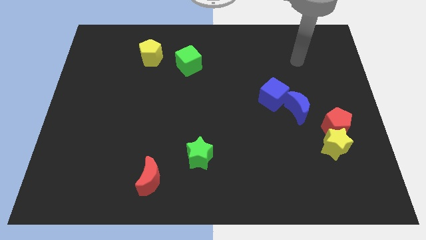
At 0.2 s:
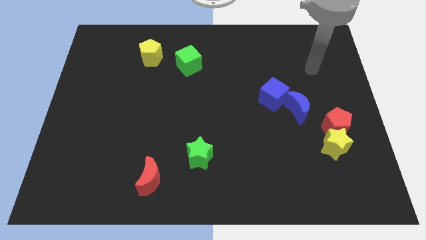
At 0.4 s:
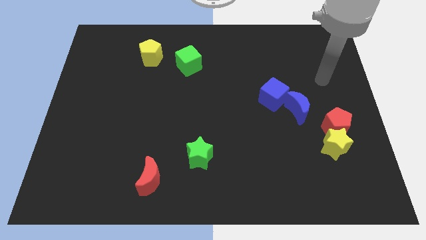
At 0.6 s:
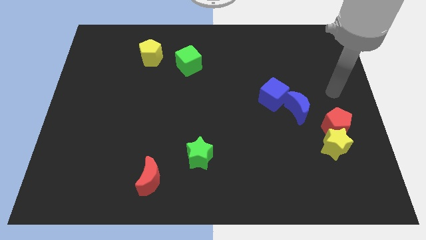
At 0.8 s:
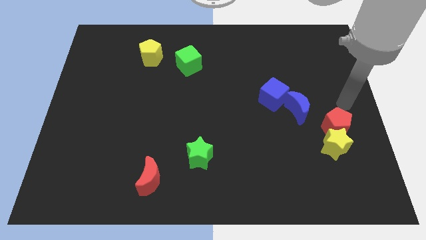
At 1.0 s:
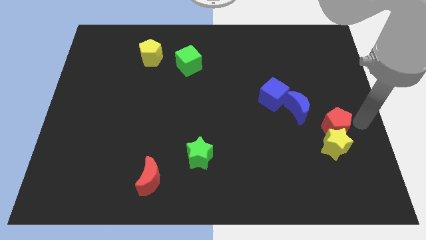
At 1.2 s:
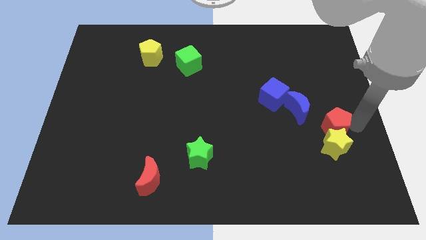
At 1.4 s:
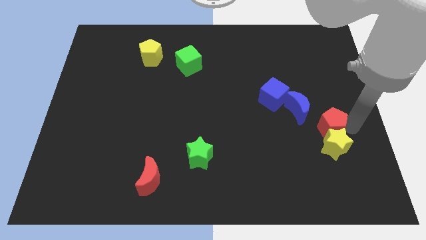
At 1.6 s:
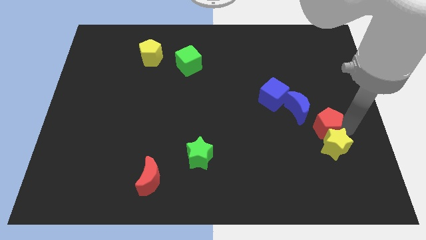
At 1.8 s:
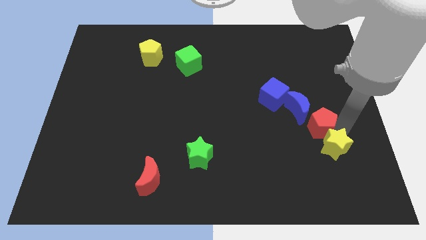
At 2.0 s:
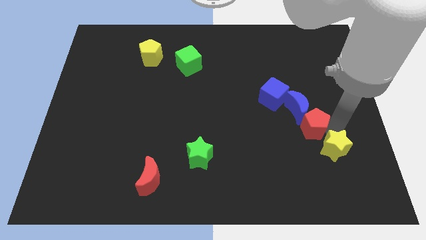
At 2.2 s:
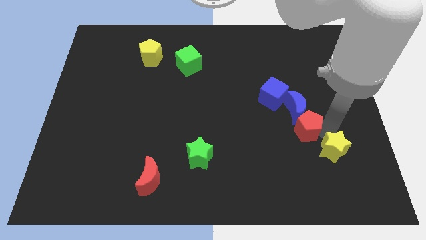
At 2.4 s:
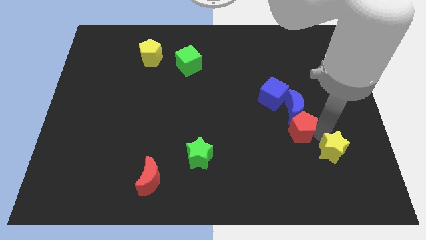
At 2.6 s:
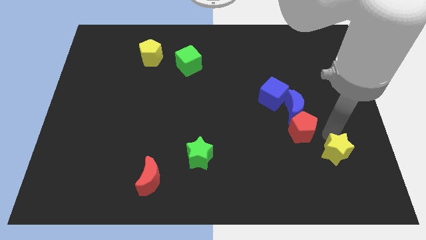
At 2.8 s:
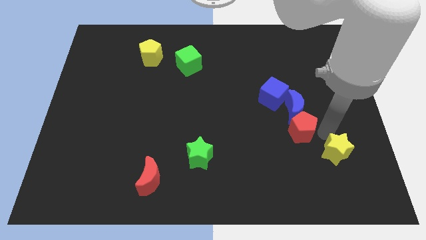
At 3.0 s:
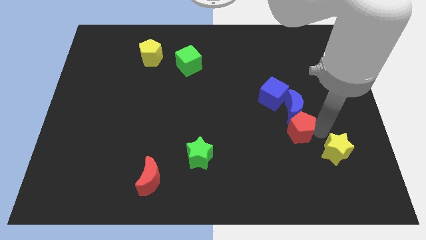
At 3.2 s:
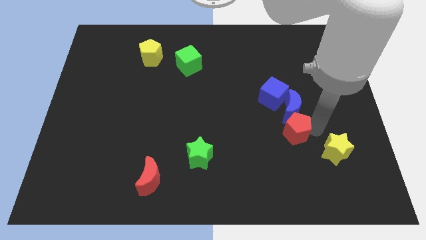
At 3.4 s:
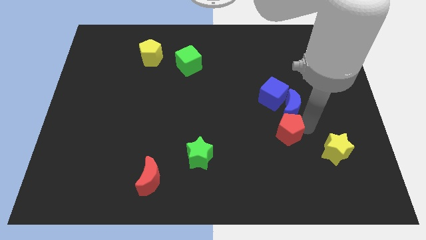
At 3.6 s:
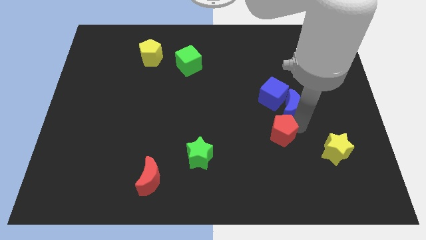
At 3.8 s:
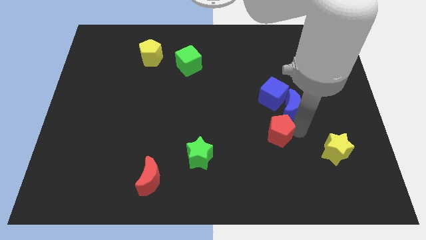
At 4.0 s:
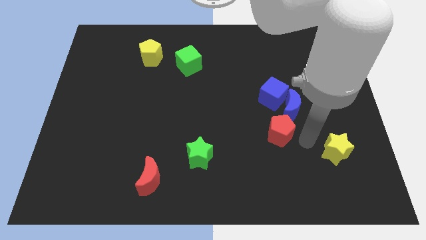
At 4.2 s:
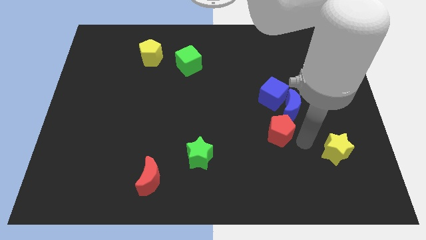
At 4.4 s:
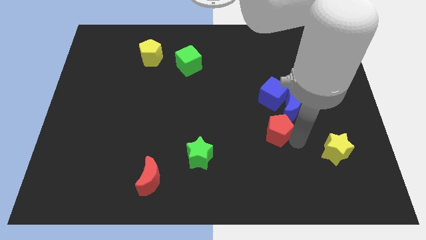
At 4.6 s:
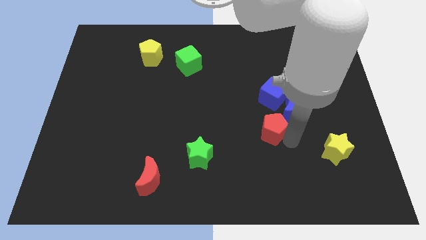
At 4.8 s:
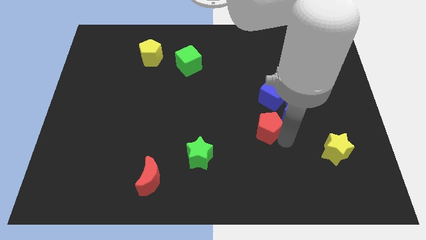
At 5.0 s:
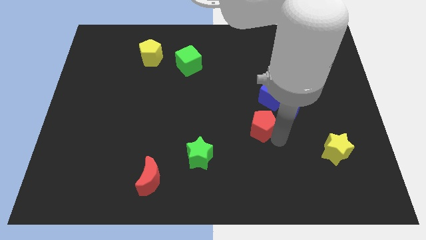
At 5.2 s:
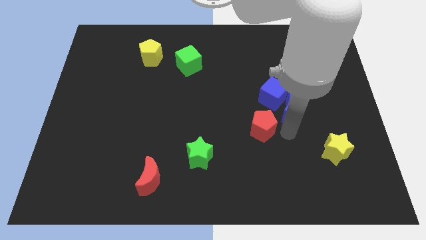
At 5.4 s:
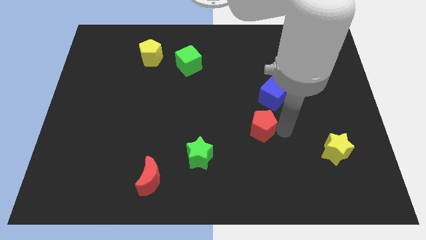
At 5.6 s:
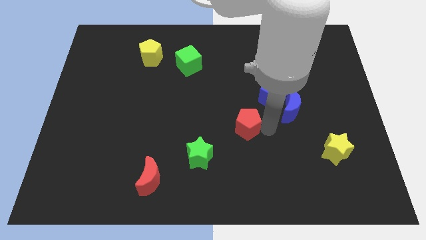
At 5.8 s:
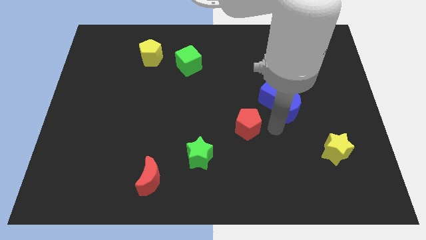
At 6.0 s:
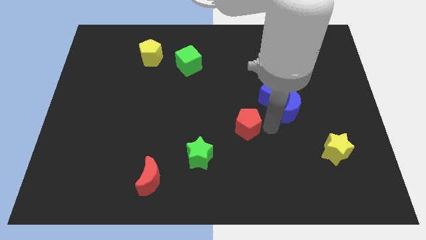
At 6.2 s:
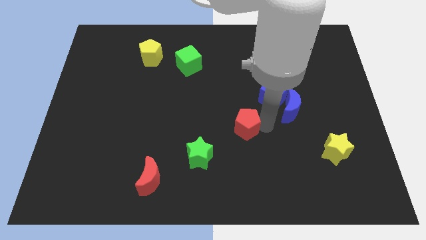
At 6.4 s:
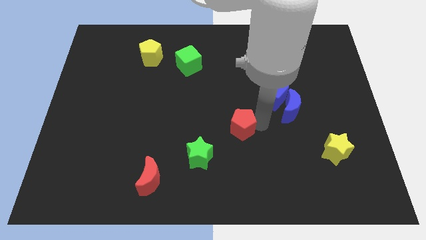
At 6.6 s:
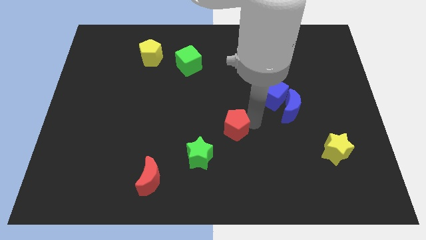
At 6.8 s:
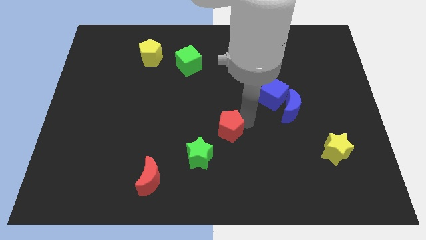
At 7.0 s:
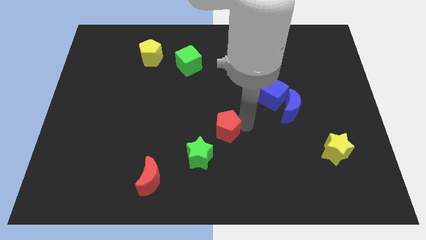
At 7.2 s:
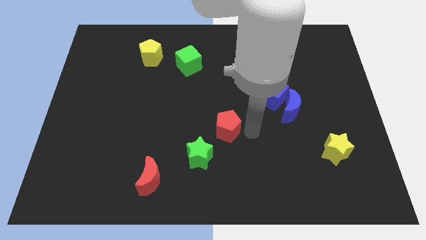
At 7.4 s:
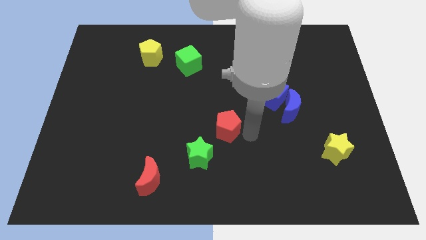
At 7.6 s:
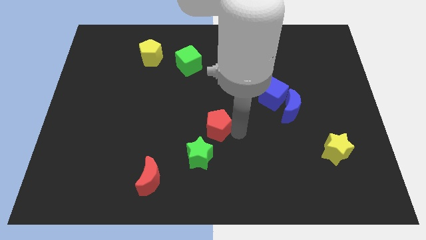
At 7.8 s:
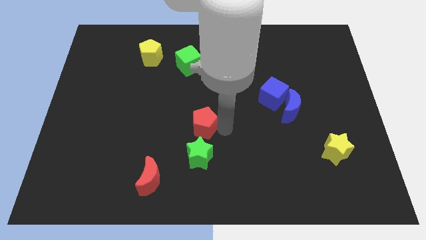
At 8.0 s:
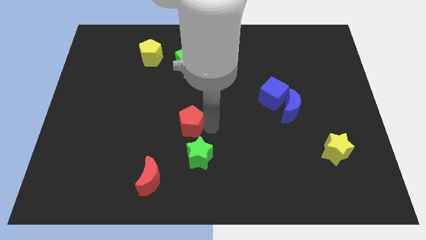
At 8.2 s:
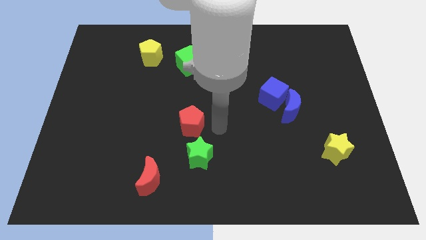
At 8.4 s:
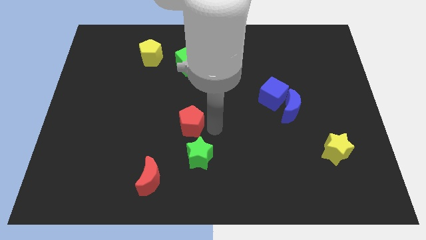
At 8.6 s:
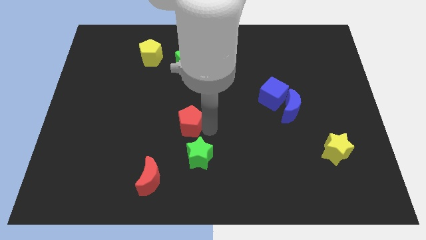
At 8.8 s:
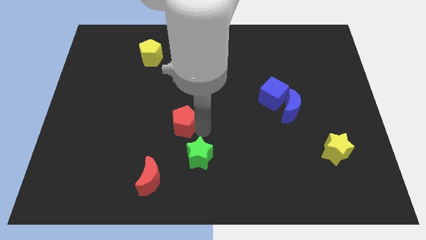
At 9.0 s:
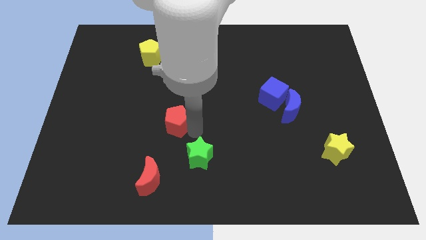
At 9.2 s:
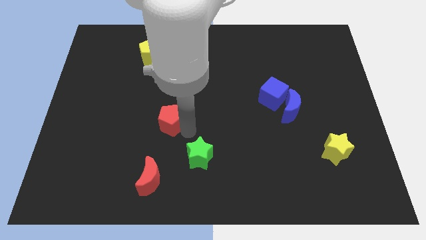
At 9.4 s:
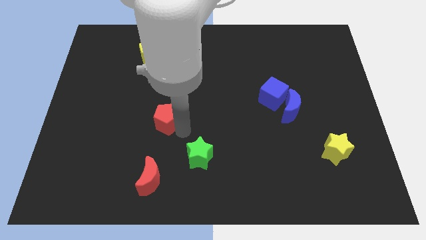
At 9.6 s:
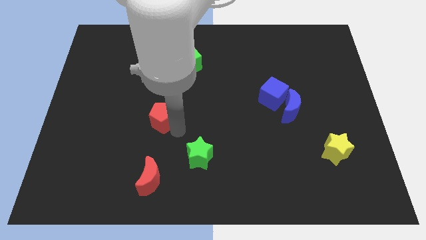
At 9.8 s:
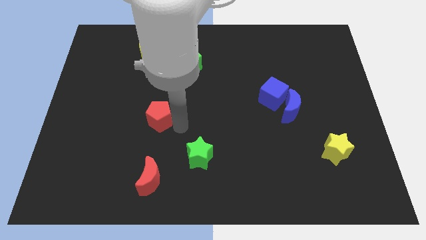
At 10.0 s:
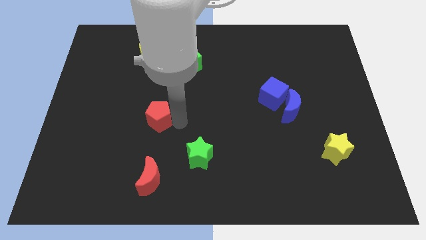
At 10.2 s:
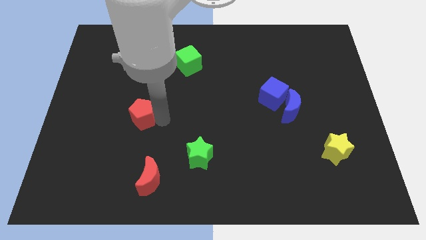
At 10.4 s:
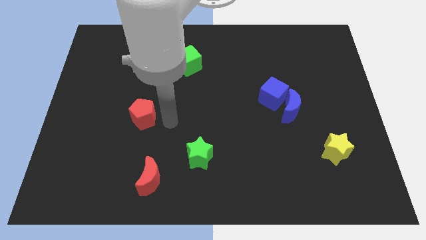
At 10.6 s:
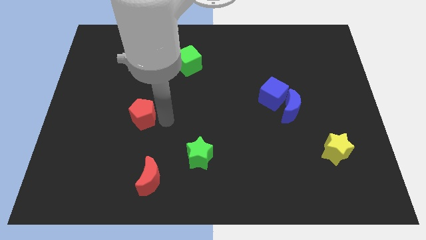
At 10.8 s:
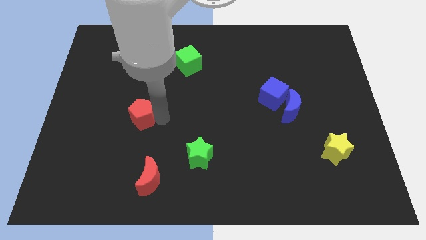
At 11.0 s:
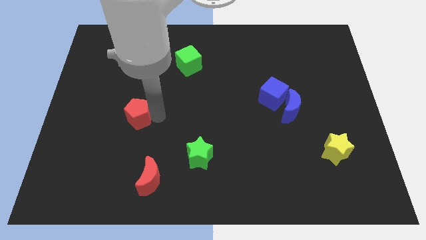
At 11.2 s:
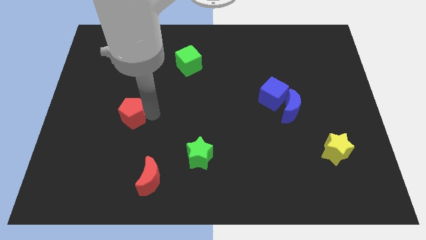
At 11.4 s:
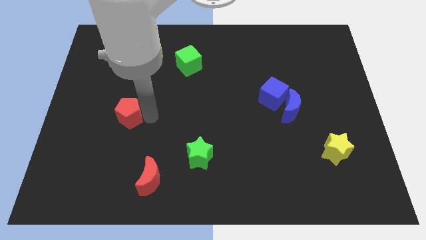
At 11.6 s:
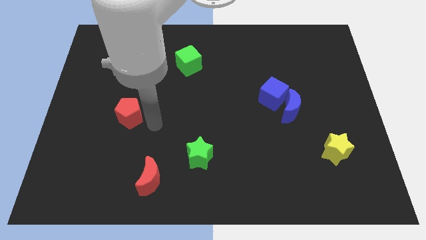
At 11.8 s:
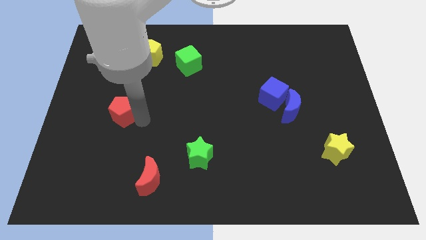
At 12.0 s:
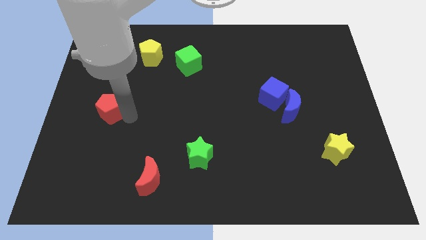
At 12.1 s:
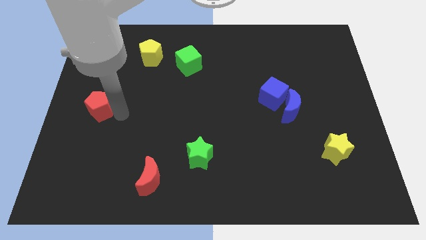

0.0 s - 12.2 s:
push the red pentagon to the center left
